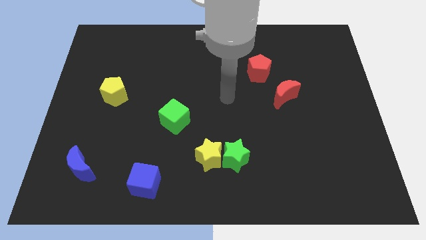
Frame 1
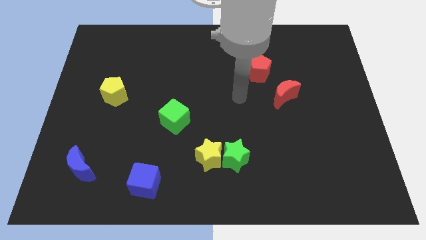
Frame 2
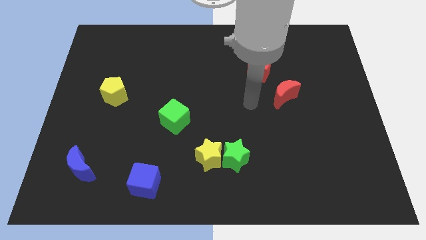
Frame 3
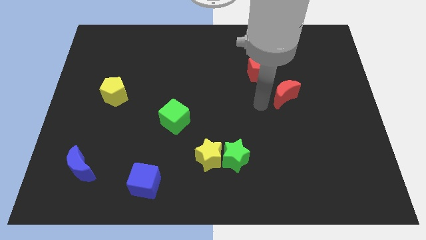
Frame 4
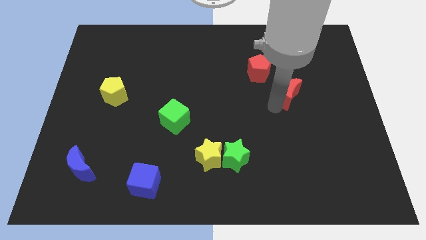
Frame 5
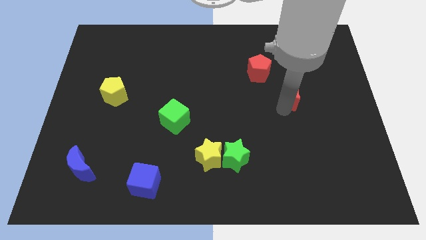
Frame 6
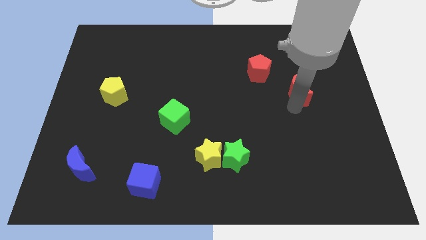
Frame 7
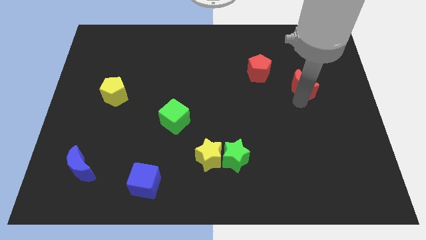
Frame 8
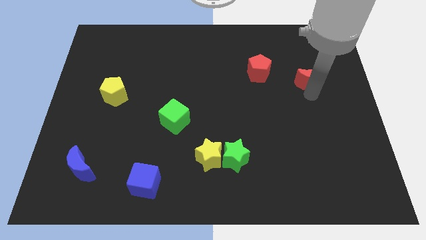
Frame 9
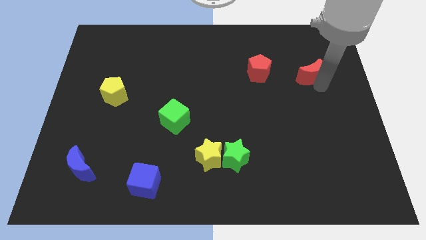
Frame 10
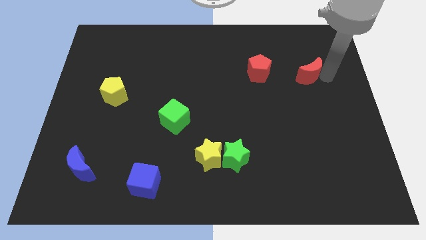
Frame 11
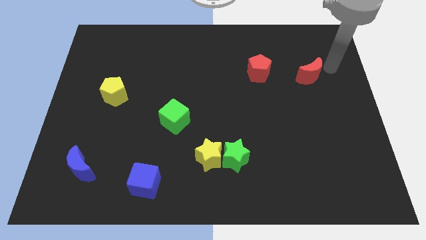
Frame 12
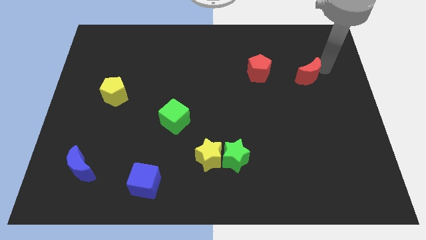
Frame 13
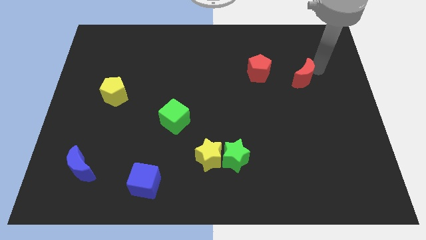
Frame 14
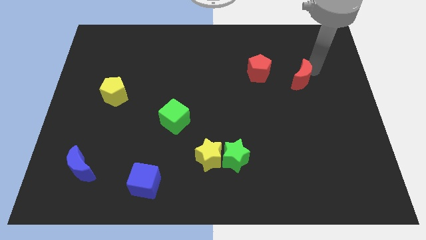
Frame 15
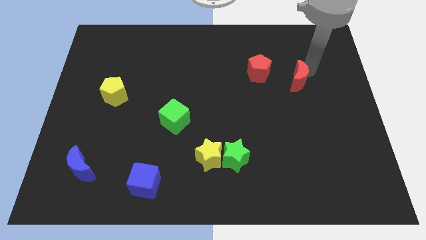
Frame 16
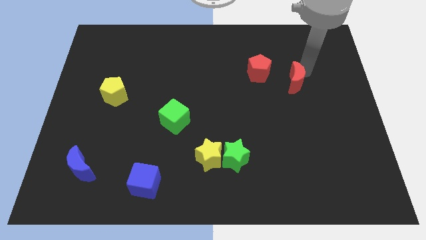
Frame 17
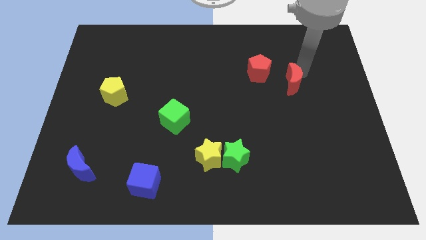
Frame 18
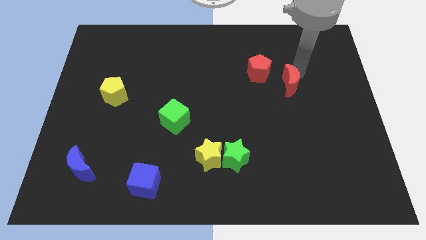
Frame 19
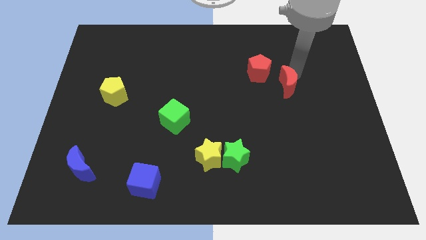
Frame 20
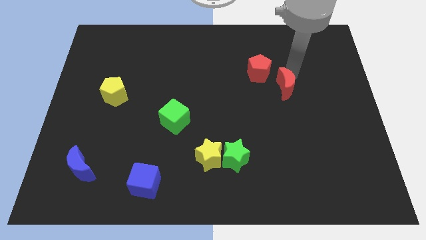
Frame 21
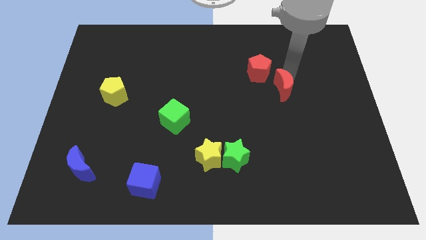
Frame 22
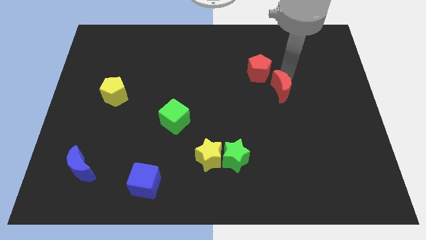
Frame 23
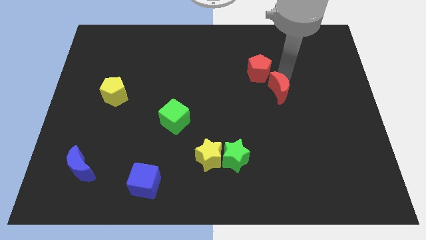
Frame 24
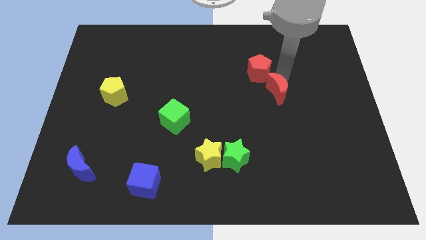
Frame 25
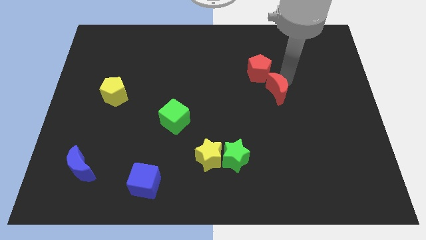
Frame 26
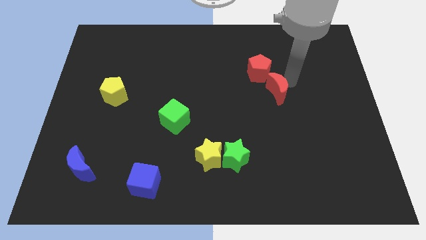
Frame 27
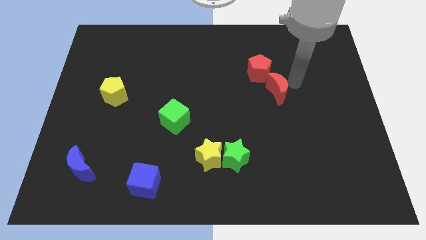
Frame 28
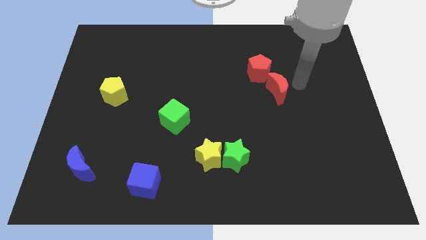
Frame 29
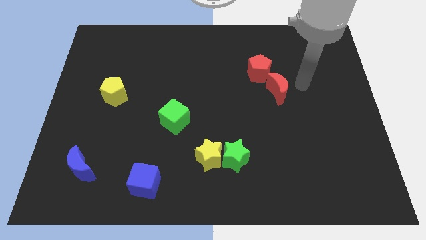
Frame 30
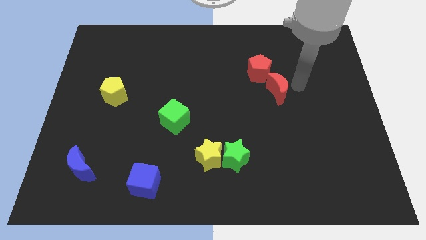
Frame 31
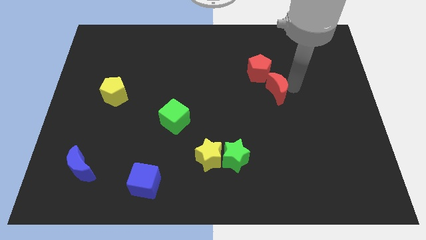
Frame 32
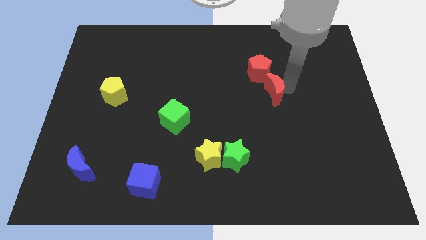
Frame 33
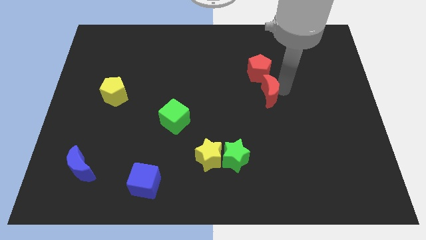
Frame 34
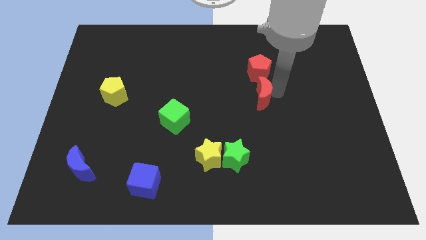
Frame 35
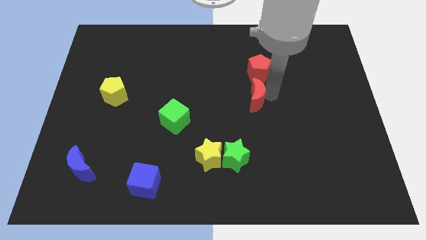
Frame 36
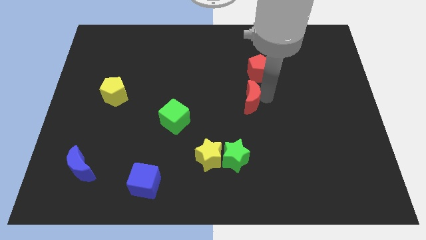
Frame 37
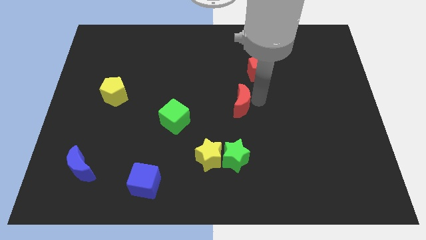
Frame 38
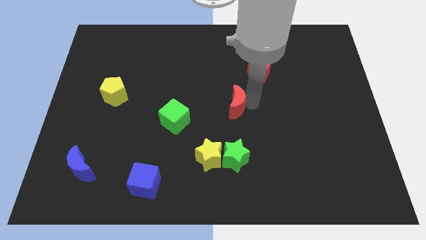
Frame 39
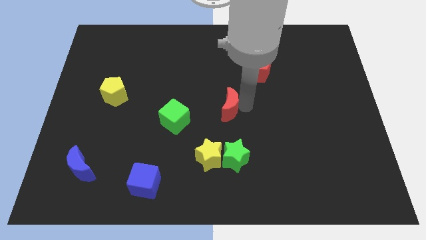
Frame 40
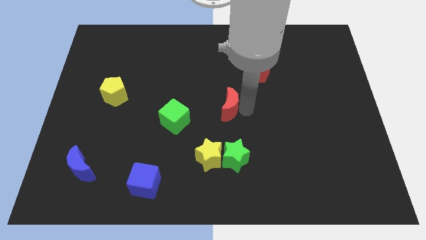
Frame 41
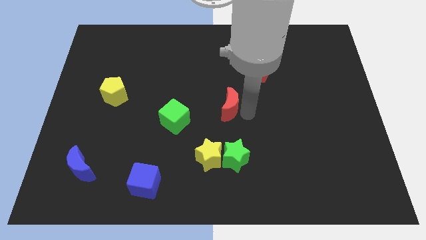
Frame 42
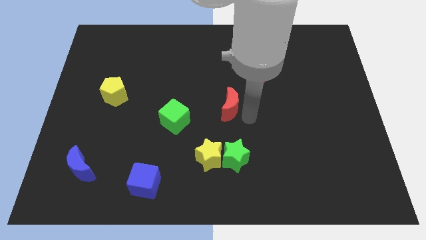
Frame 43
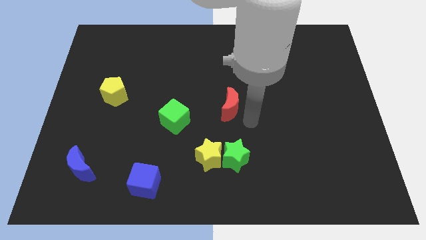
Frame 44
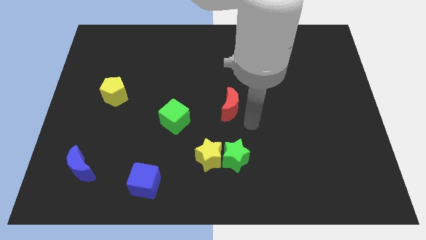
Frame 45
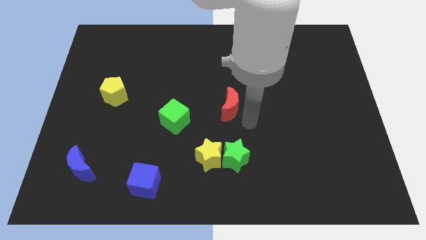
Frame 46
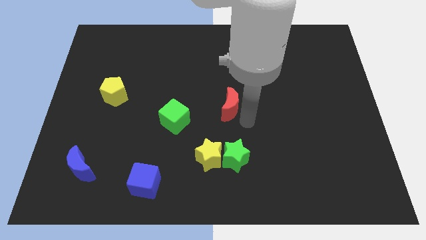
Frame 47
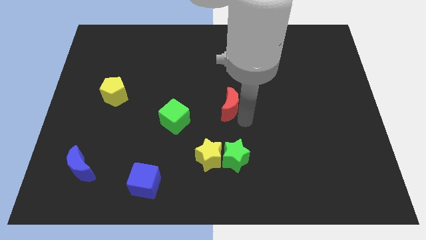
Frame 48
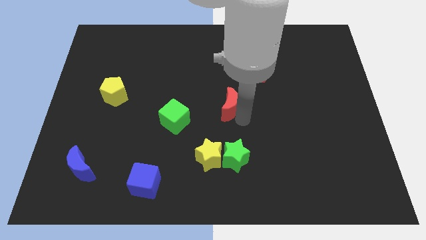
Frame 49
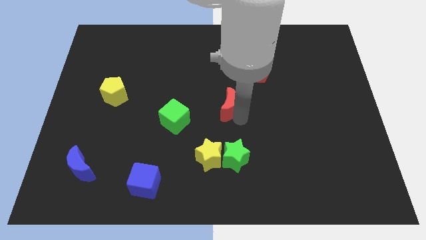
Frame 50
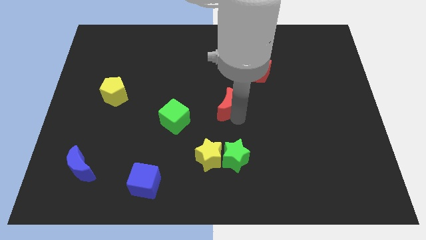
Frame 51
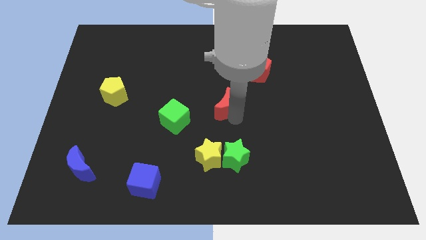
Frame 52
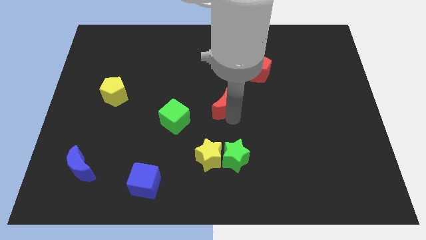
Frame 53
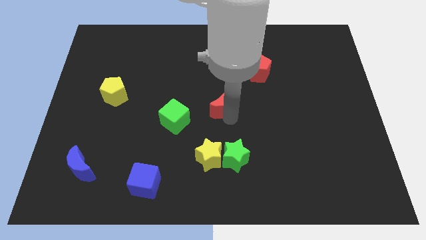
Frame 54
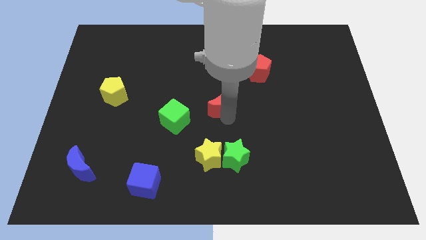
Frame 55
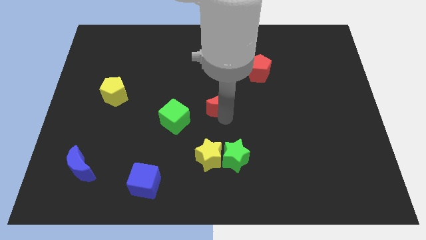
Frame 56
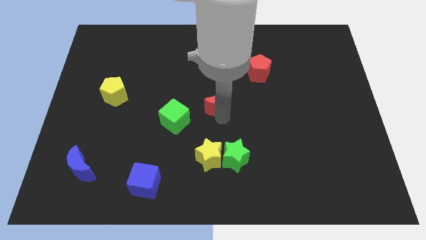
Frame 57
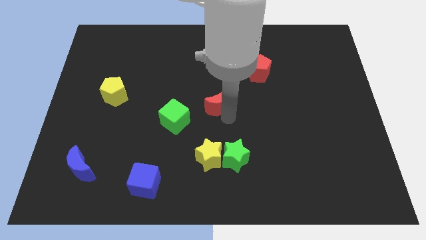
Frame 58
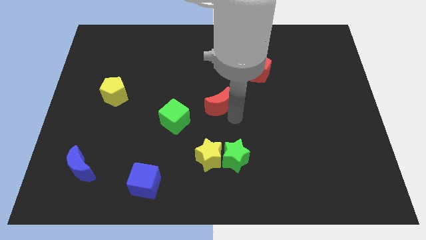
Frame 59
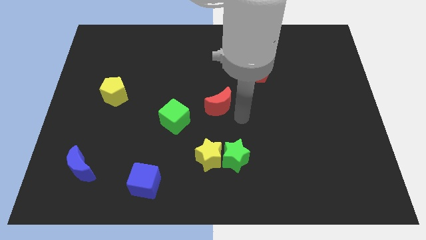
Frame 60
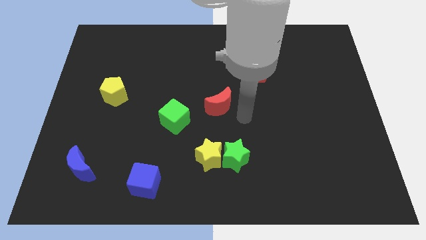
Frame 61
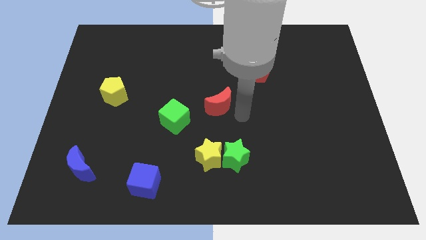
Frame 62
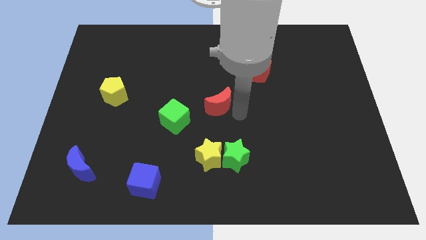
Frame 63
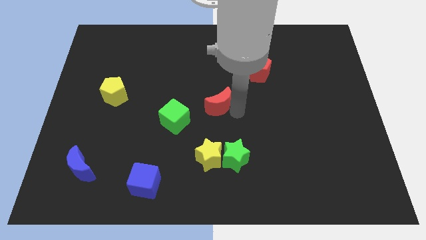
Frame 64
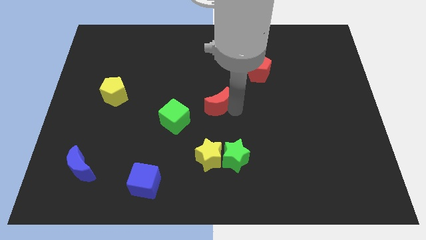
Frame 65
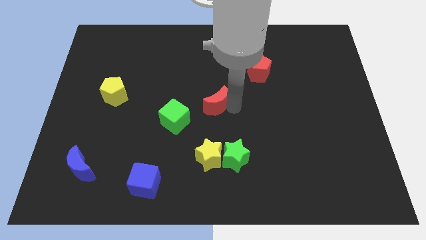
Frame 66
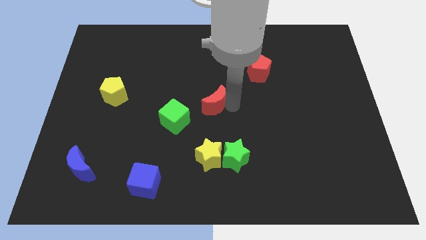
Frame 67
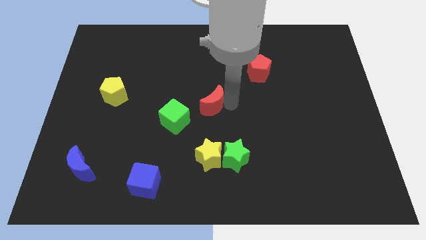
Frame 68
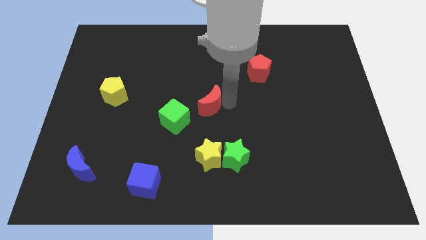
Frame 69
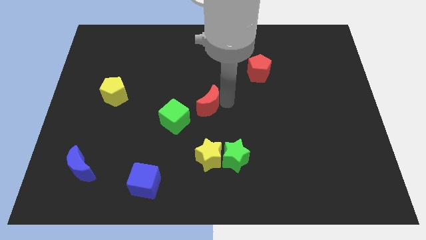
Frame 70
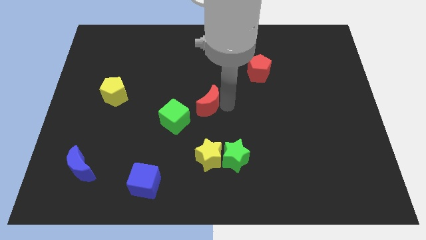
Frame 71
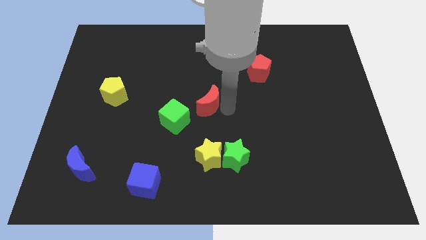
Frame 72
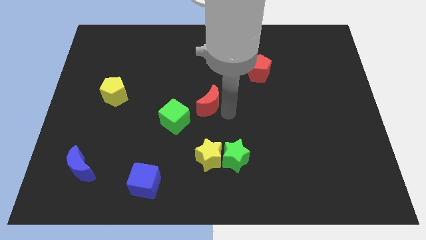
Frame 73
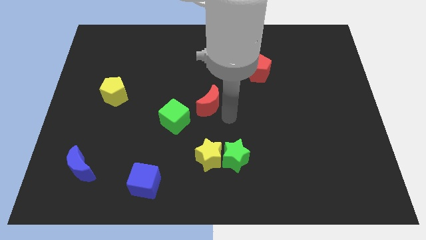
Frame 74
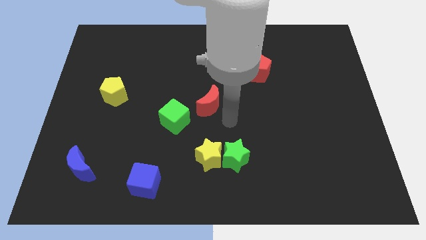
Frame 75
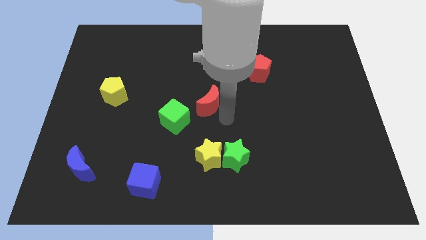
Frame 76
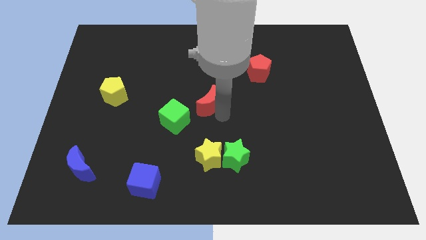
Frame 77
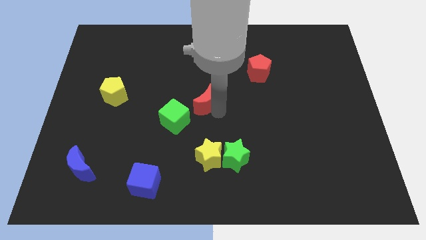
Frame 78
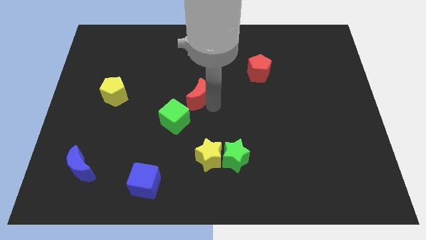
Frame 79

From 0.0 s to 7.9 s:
push the red moon left
